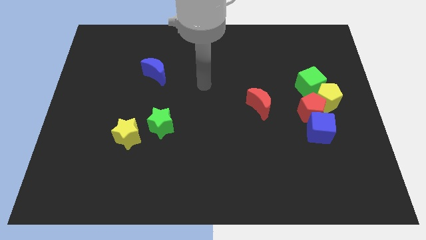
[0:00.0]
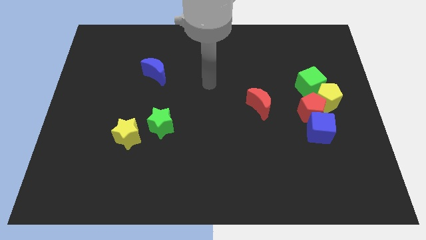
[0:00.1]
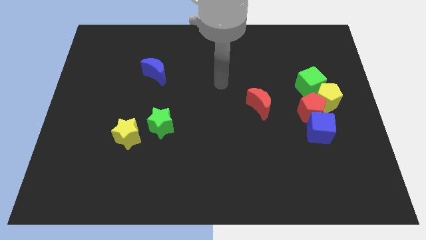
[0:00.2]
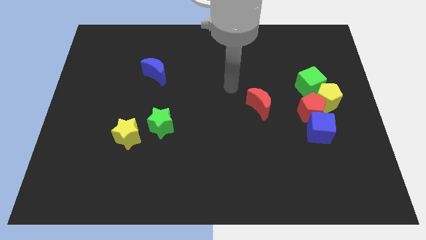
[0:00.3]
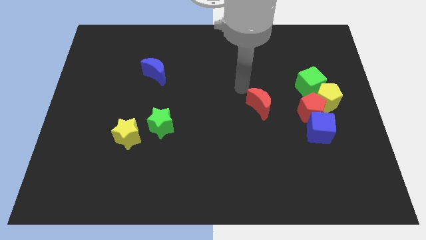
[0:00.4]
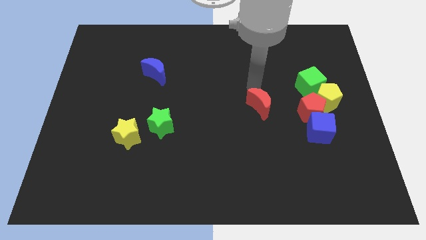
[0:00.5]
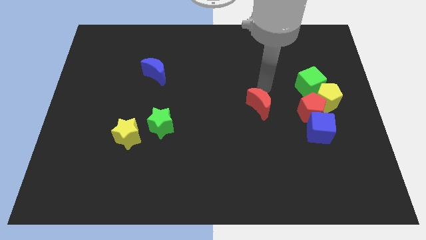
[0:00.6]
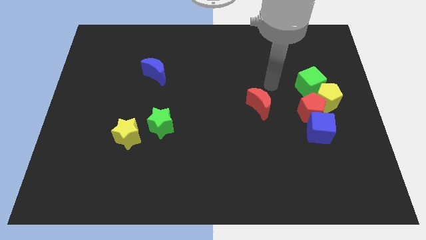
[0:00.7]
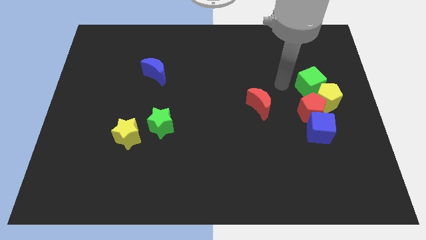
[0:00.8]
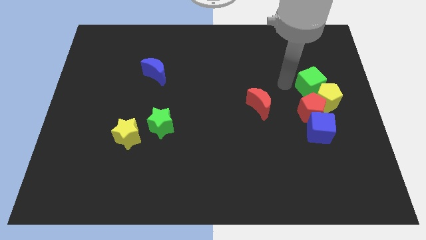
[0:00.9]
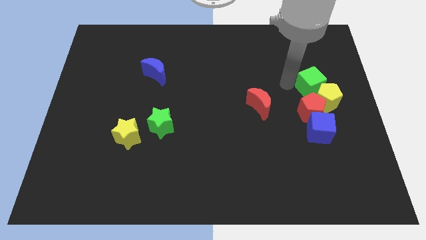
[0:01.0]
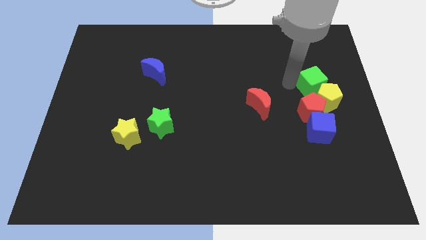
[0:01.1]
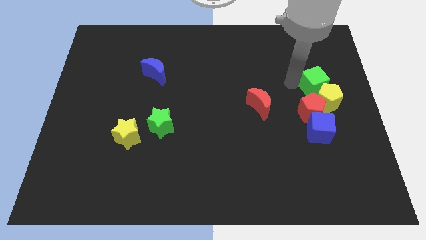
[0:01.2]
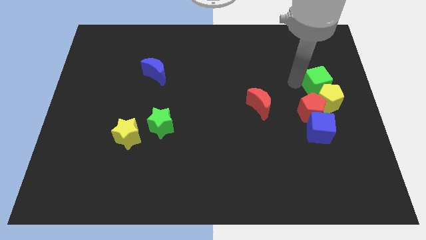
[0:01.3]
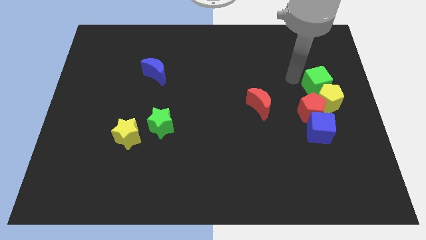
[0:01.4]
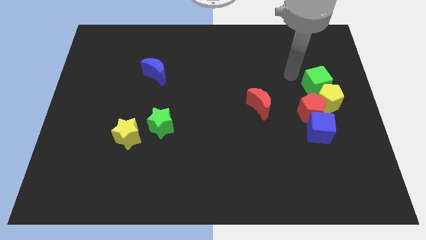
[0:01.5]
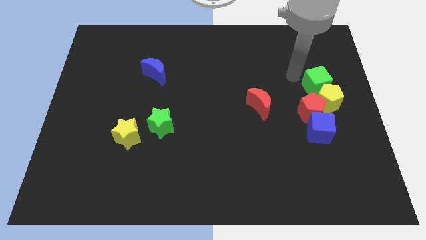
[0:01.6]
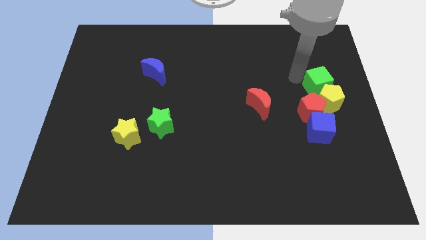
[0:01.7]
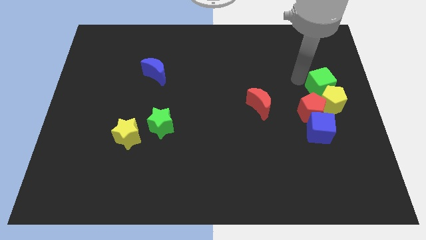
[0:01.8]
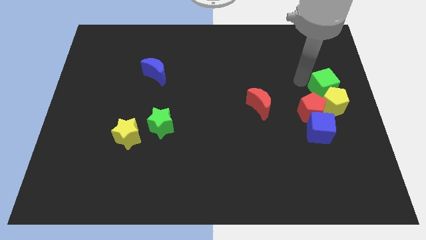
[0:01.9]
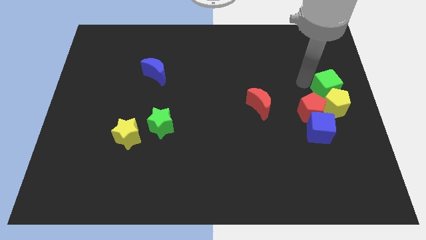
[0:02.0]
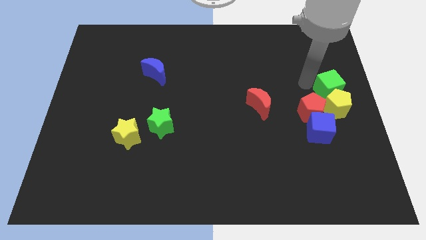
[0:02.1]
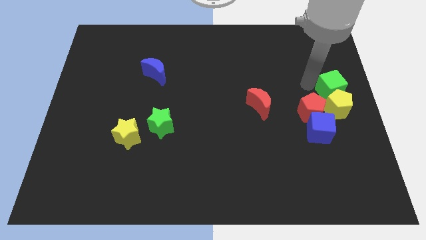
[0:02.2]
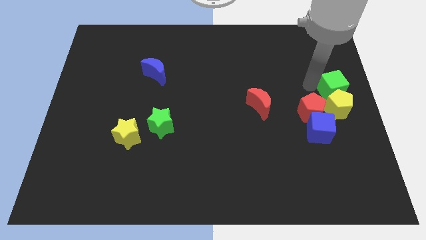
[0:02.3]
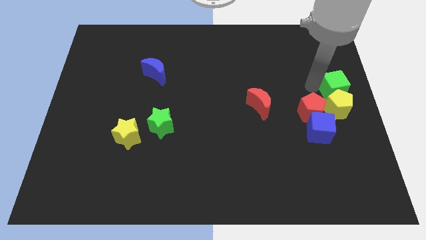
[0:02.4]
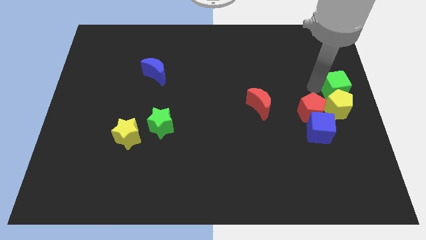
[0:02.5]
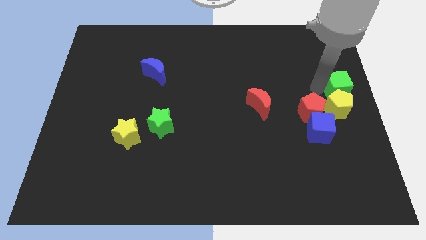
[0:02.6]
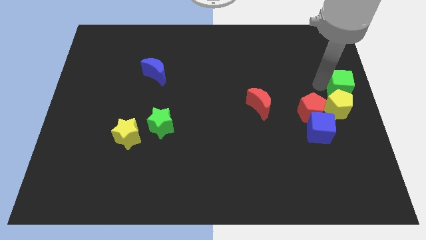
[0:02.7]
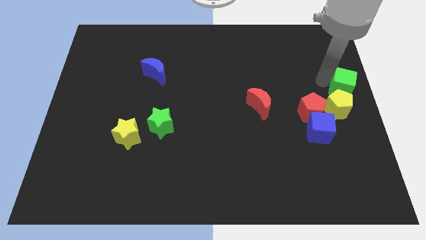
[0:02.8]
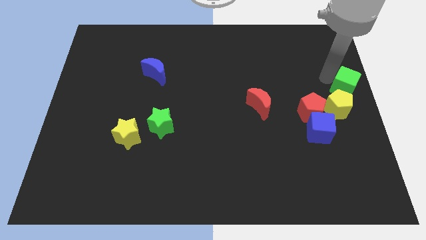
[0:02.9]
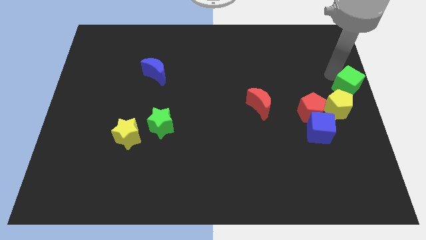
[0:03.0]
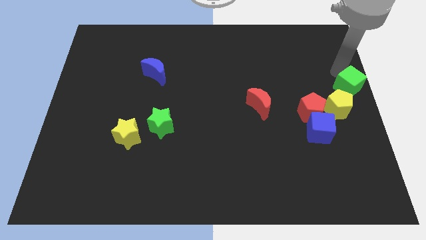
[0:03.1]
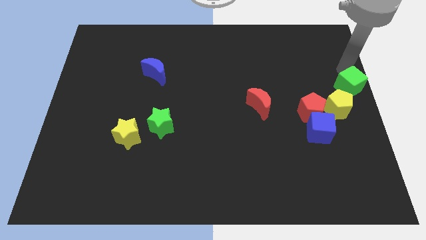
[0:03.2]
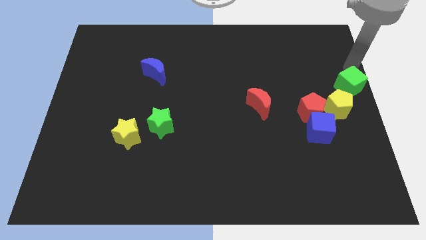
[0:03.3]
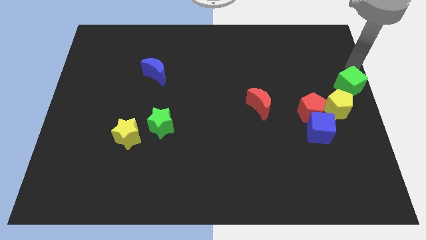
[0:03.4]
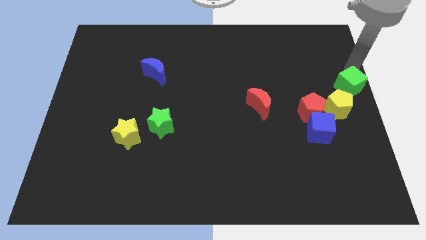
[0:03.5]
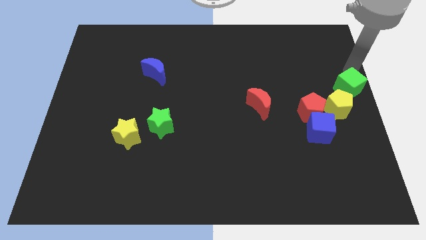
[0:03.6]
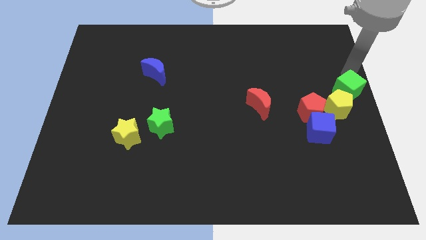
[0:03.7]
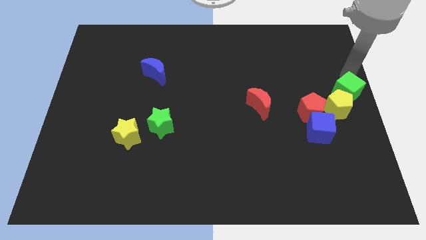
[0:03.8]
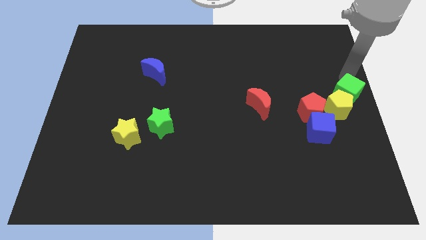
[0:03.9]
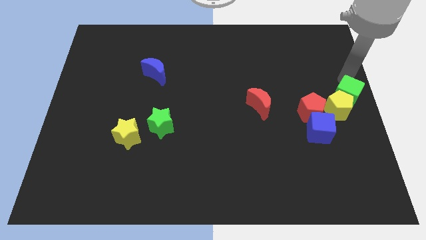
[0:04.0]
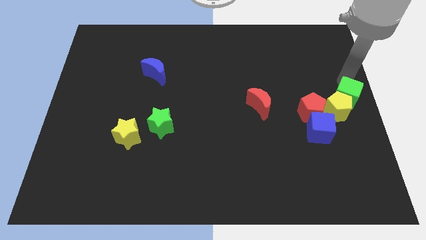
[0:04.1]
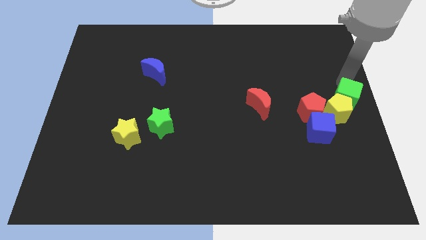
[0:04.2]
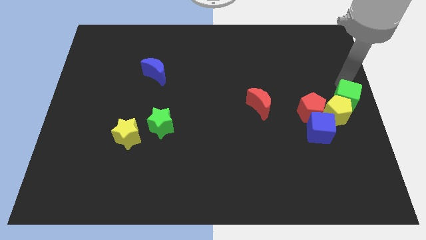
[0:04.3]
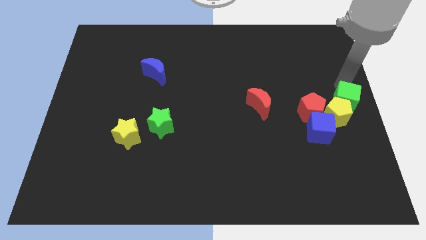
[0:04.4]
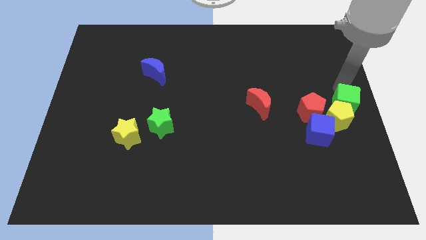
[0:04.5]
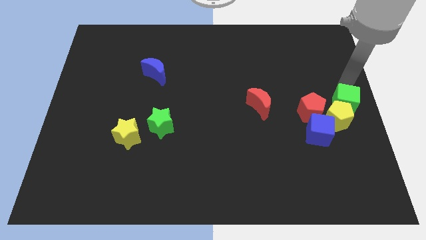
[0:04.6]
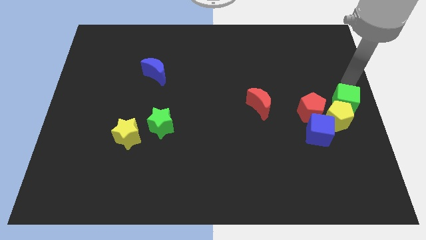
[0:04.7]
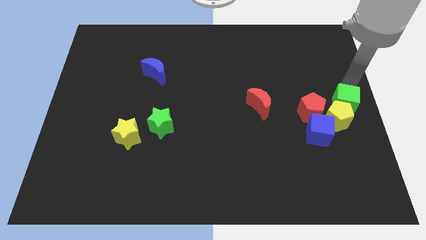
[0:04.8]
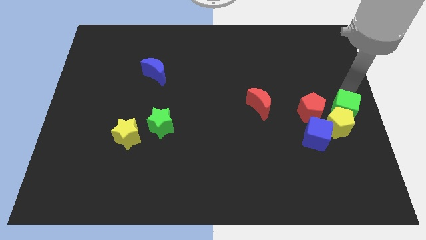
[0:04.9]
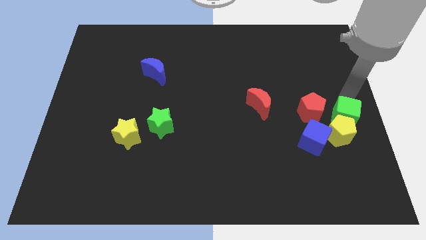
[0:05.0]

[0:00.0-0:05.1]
put the green cube to the bottom right side of the red pentagon

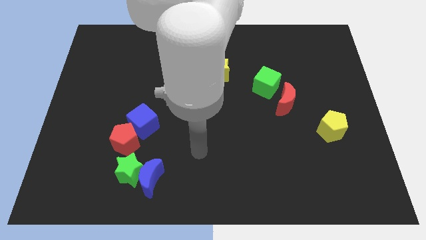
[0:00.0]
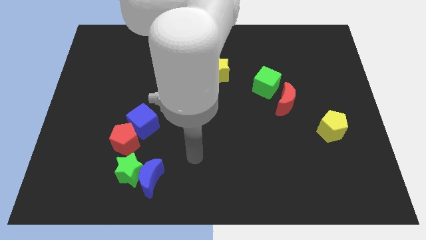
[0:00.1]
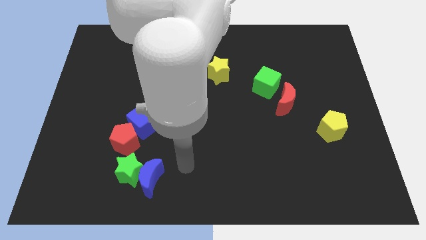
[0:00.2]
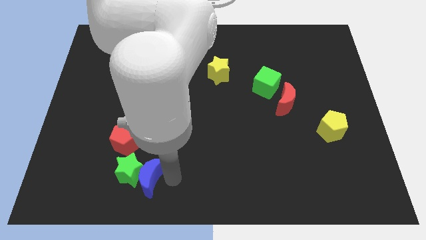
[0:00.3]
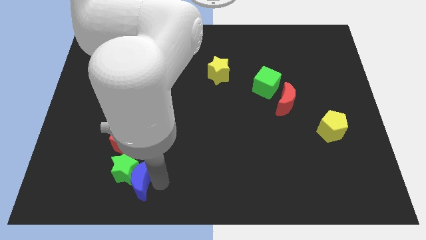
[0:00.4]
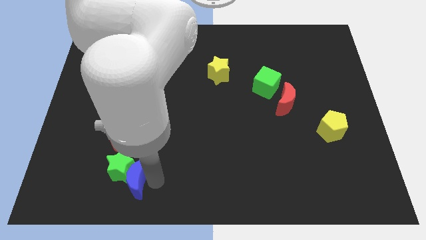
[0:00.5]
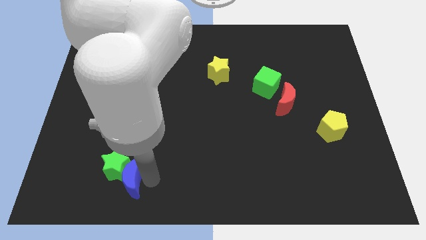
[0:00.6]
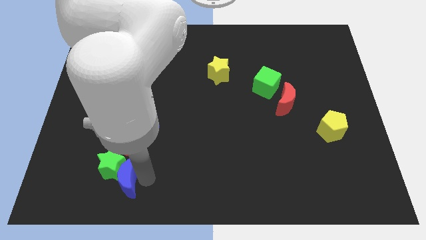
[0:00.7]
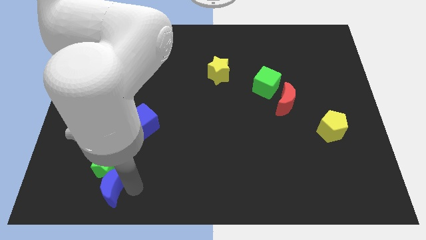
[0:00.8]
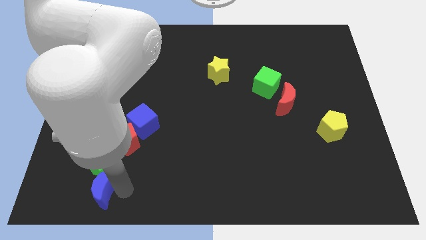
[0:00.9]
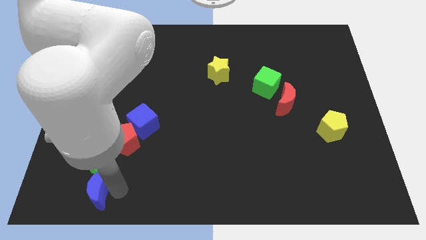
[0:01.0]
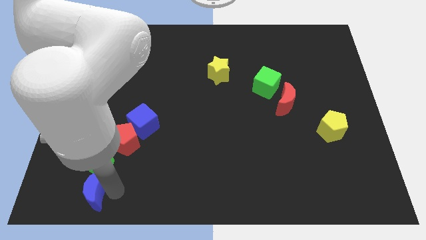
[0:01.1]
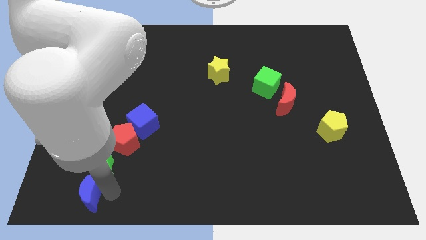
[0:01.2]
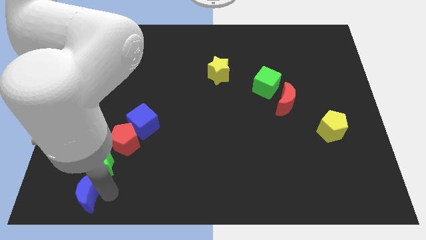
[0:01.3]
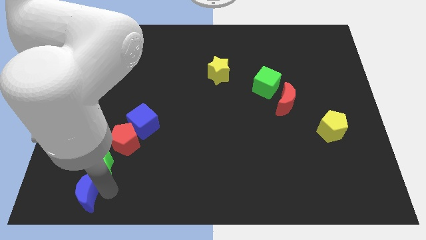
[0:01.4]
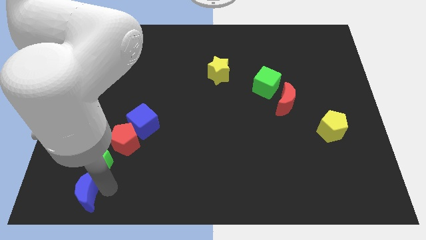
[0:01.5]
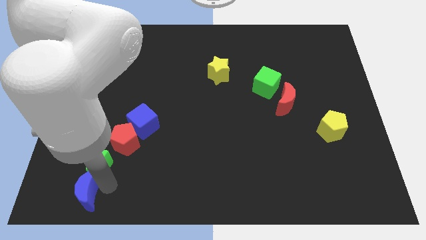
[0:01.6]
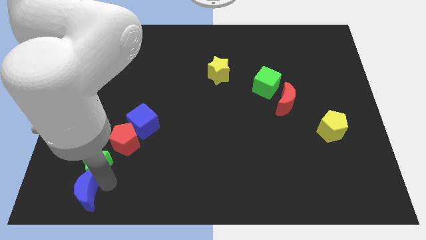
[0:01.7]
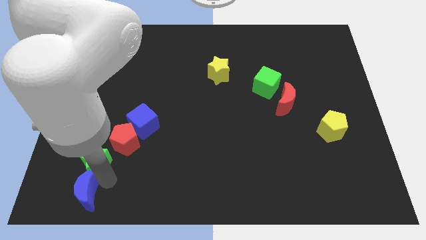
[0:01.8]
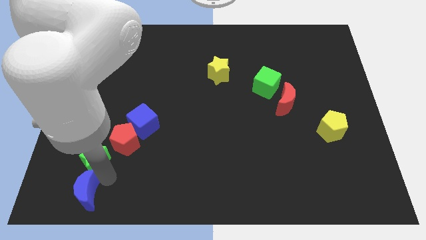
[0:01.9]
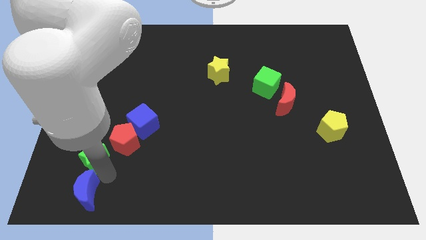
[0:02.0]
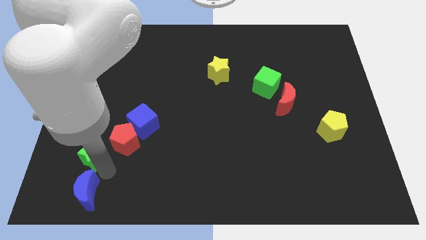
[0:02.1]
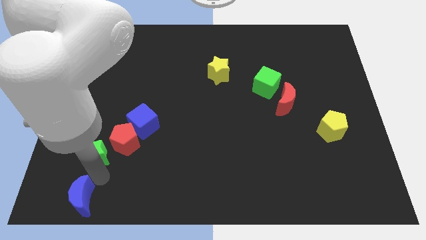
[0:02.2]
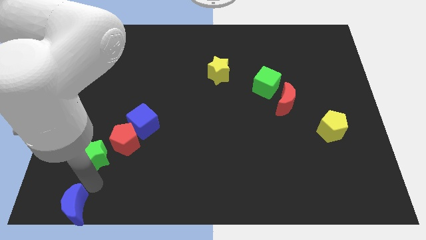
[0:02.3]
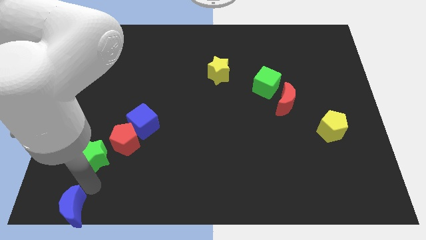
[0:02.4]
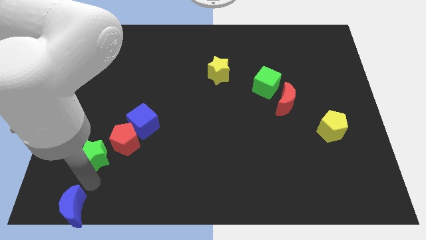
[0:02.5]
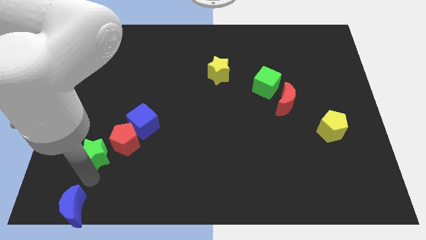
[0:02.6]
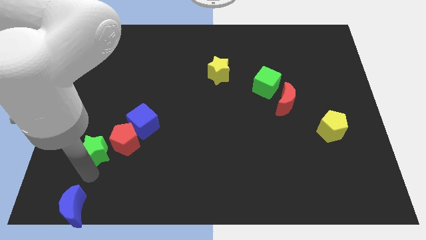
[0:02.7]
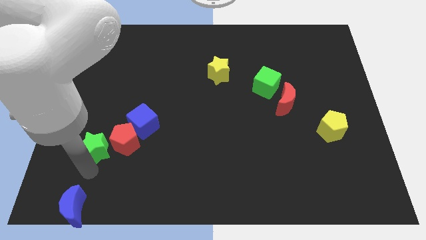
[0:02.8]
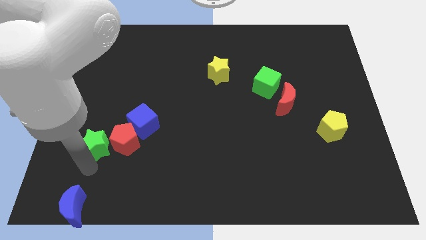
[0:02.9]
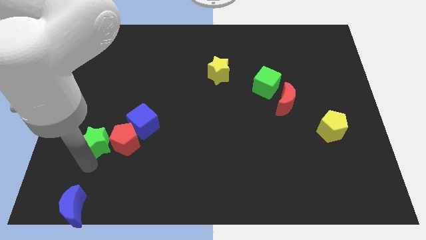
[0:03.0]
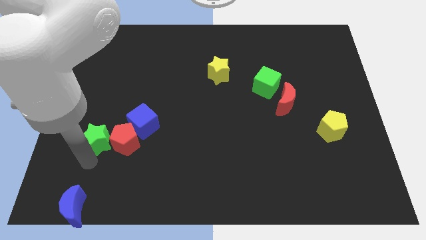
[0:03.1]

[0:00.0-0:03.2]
push the green star to the left side of the blue cube

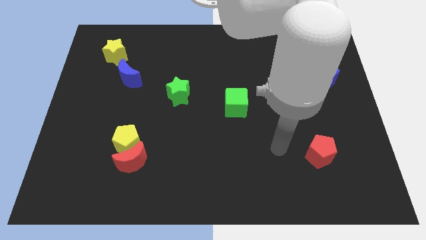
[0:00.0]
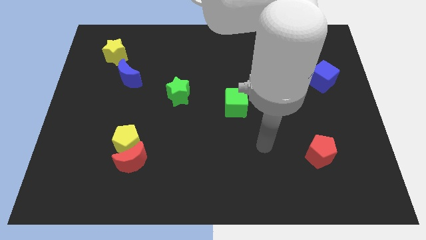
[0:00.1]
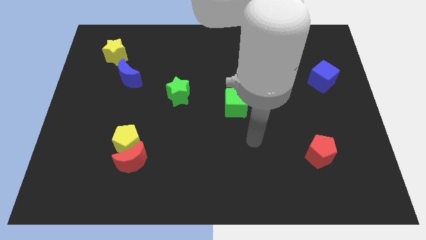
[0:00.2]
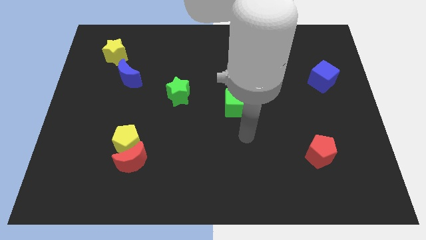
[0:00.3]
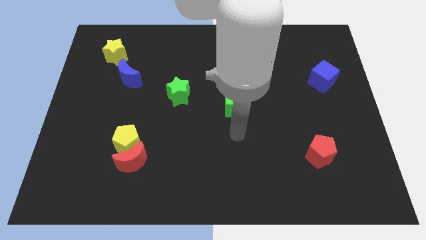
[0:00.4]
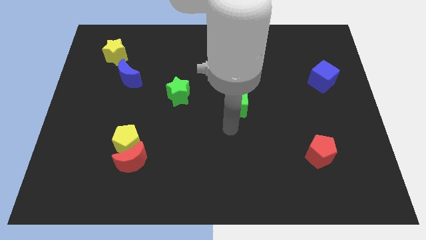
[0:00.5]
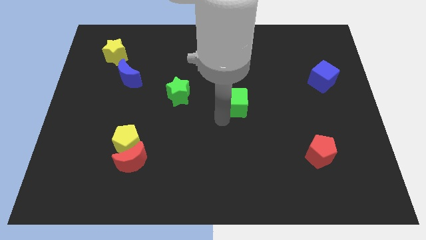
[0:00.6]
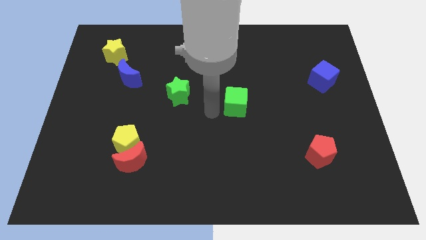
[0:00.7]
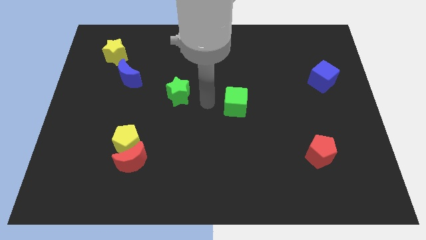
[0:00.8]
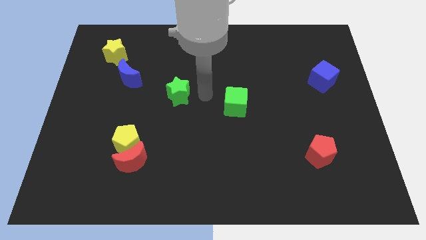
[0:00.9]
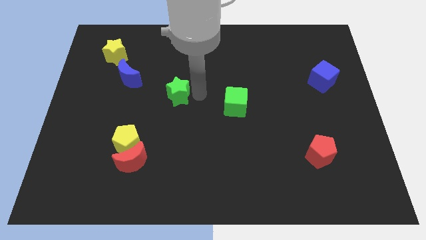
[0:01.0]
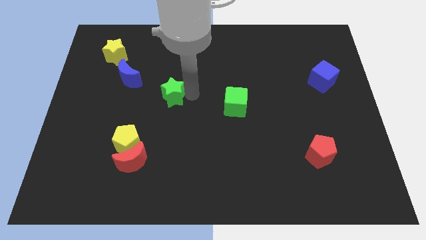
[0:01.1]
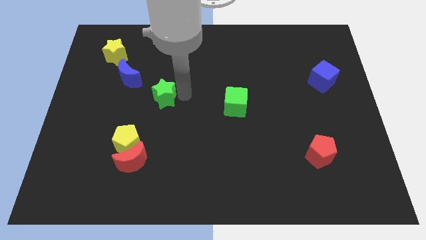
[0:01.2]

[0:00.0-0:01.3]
push the green star diagonally down and to the right of the blue moon
